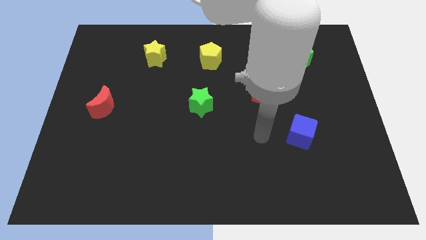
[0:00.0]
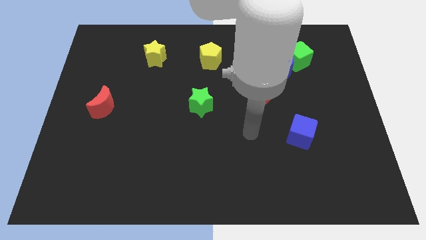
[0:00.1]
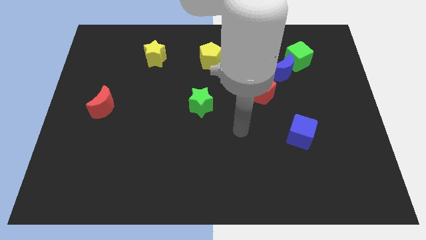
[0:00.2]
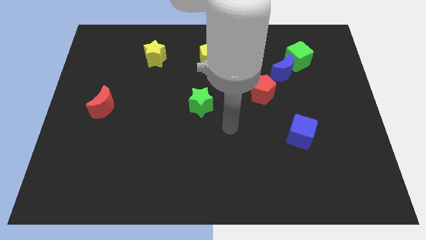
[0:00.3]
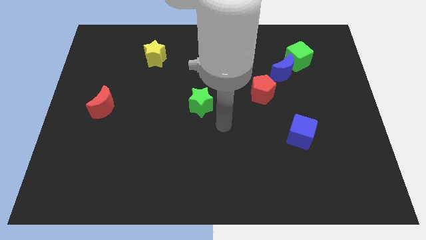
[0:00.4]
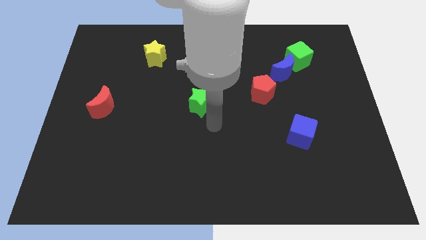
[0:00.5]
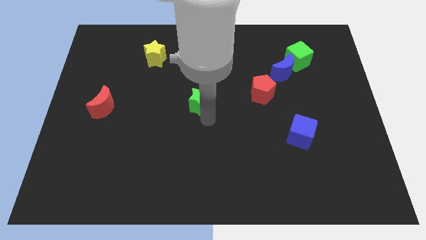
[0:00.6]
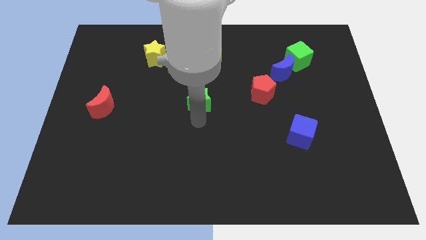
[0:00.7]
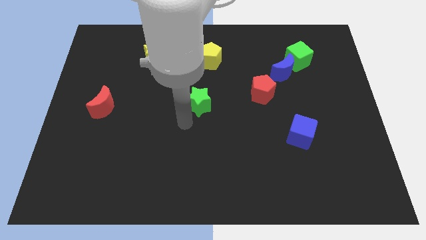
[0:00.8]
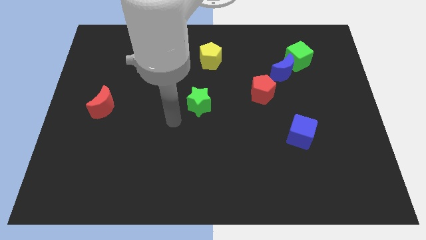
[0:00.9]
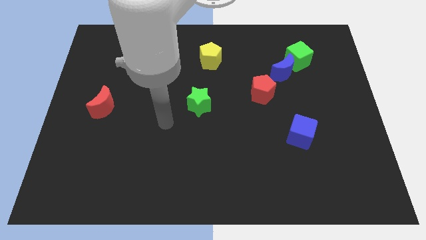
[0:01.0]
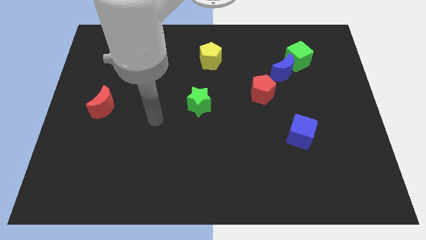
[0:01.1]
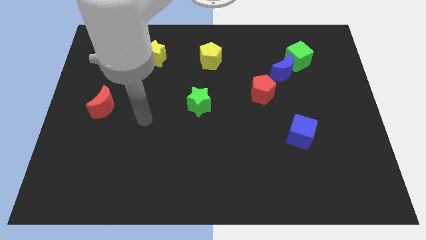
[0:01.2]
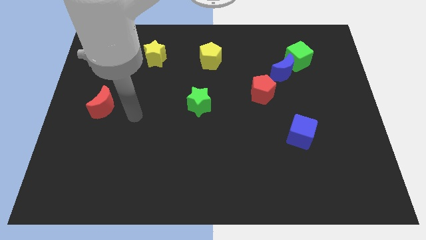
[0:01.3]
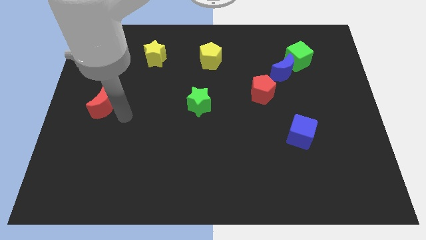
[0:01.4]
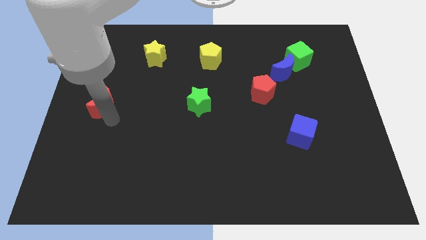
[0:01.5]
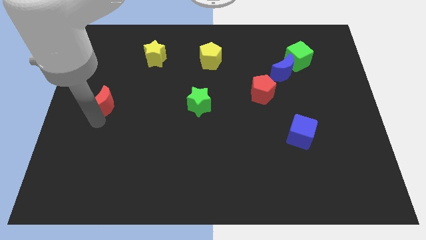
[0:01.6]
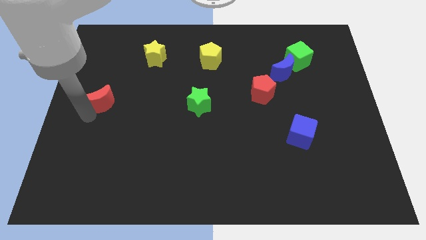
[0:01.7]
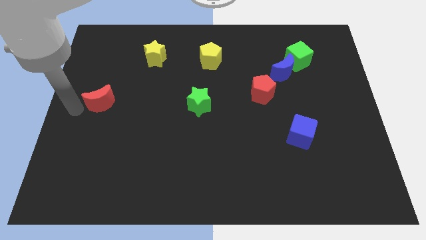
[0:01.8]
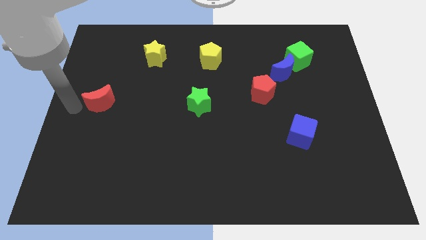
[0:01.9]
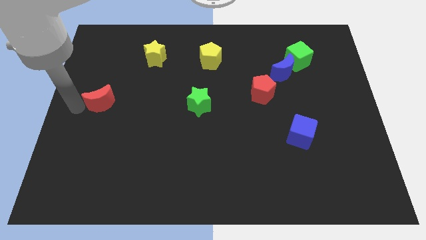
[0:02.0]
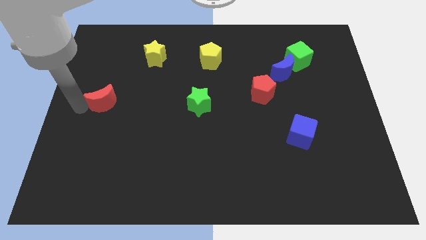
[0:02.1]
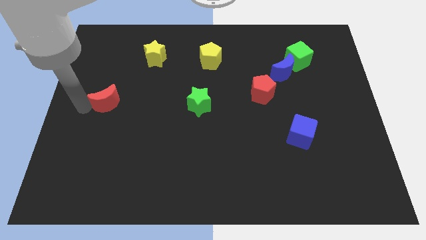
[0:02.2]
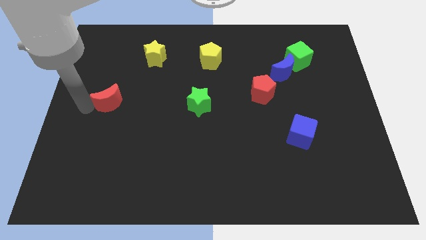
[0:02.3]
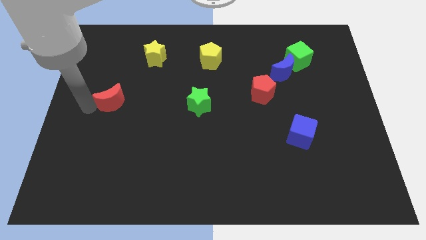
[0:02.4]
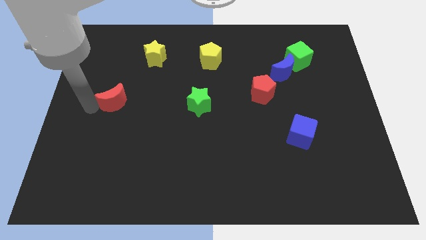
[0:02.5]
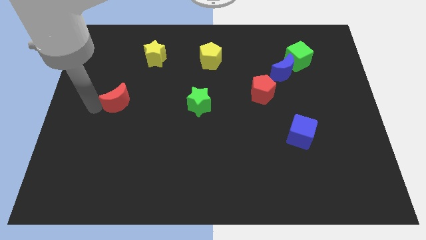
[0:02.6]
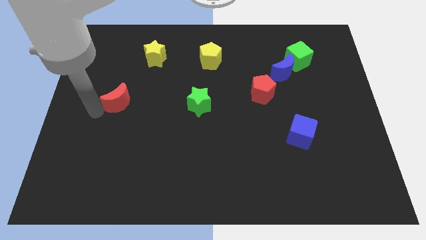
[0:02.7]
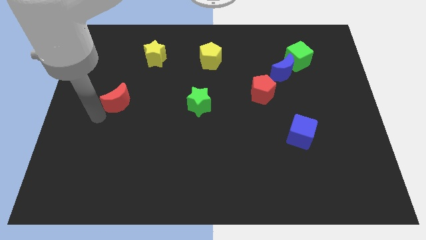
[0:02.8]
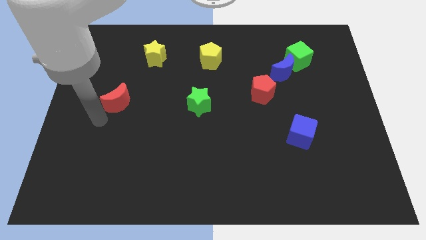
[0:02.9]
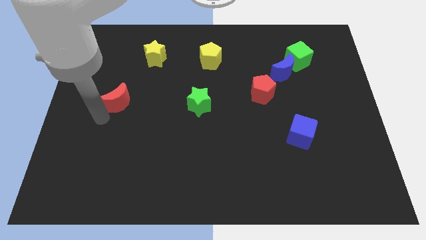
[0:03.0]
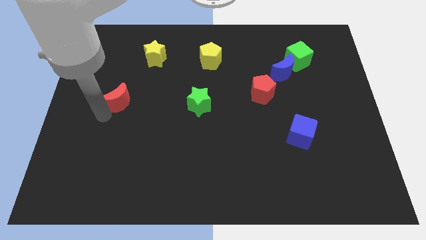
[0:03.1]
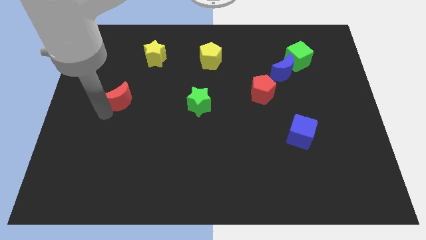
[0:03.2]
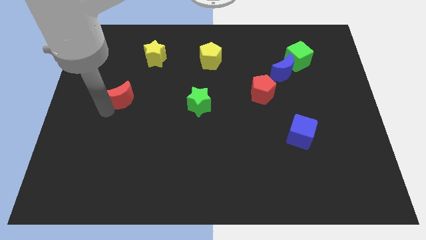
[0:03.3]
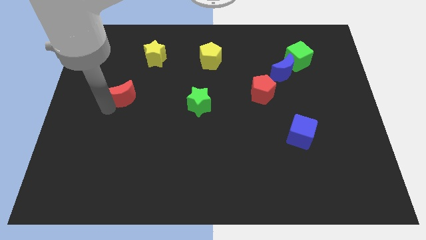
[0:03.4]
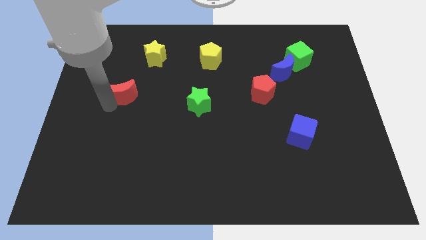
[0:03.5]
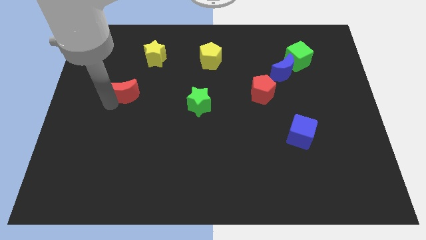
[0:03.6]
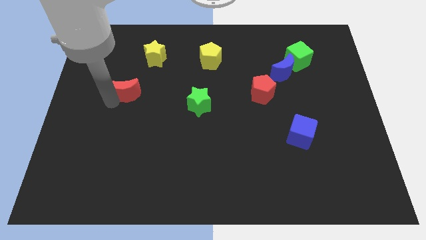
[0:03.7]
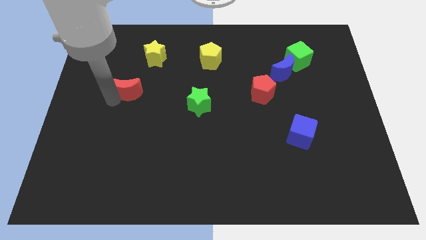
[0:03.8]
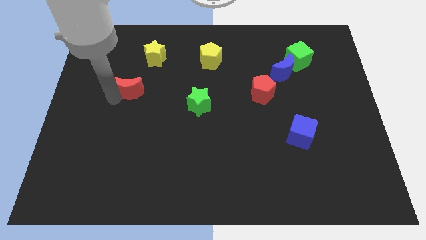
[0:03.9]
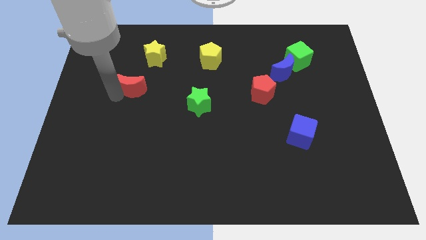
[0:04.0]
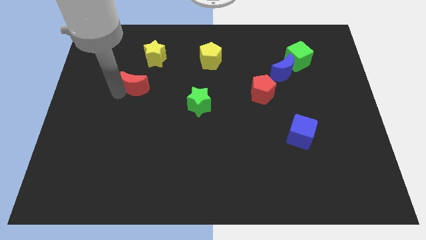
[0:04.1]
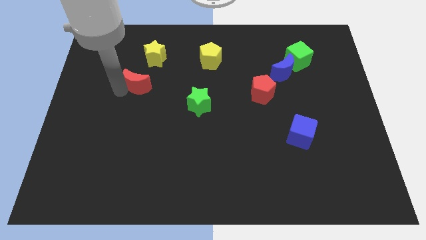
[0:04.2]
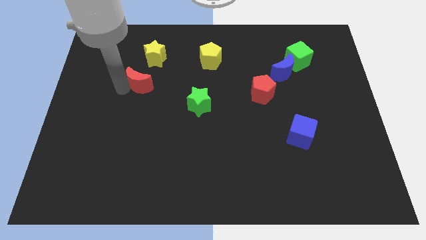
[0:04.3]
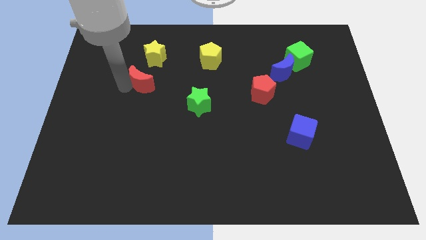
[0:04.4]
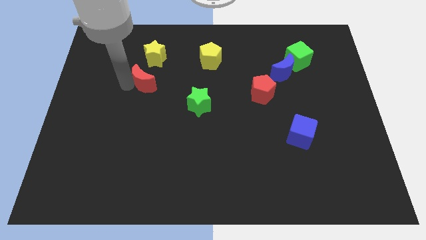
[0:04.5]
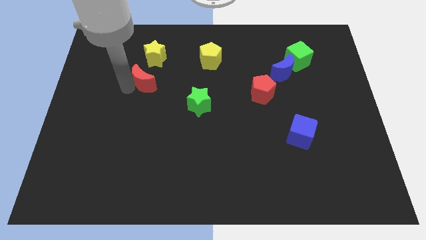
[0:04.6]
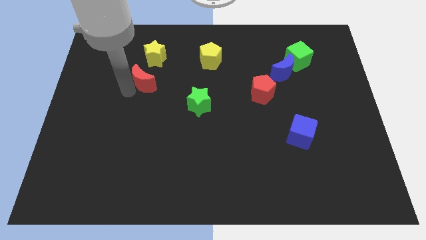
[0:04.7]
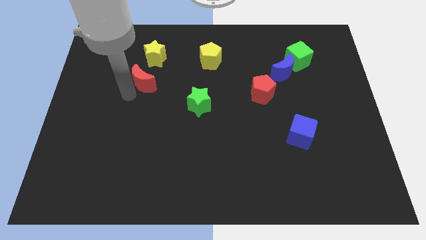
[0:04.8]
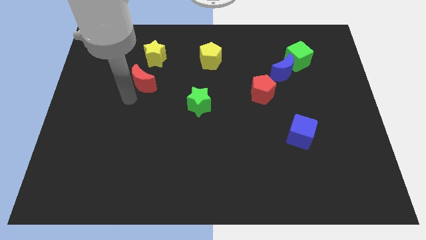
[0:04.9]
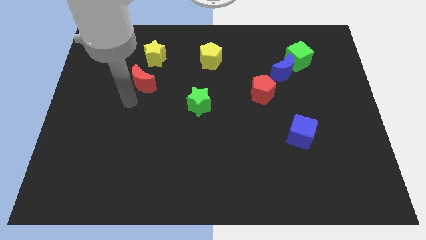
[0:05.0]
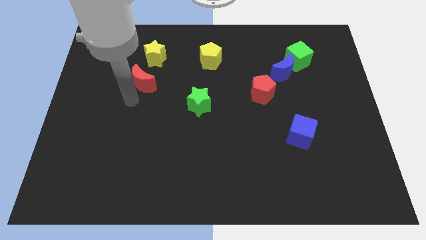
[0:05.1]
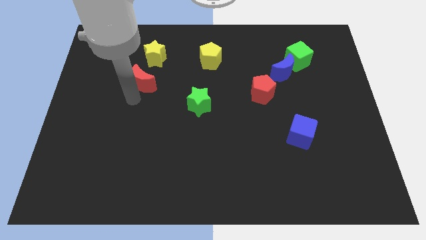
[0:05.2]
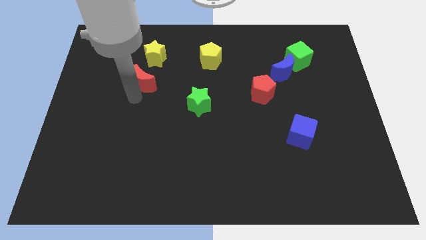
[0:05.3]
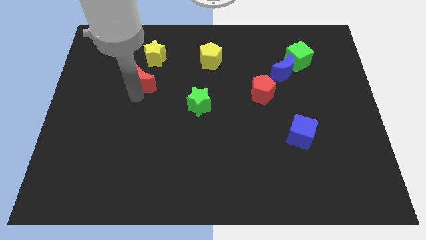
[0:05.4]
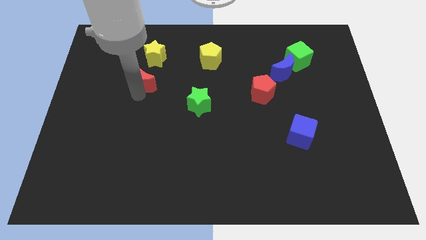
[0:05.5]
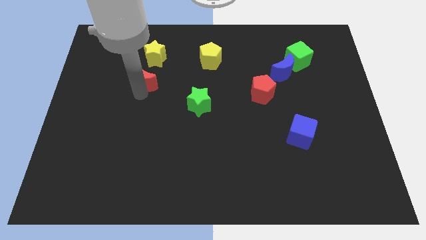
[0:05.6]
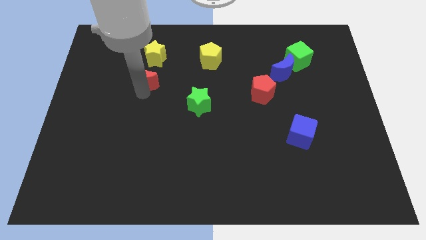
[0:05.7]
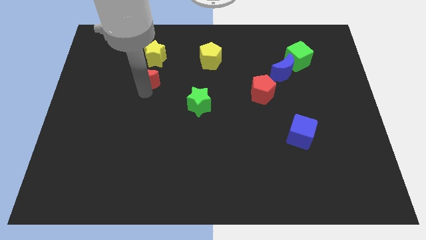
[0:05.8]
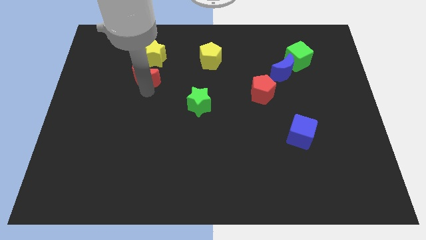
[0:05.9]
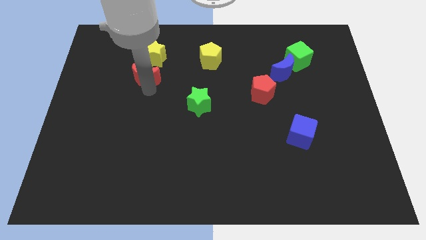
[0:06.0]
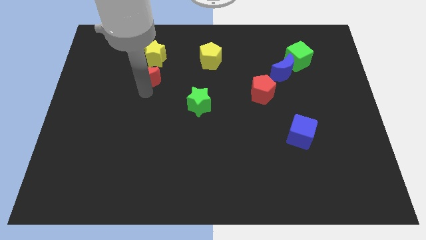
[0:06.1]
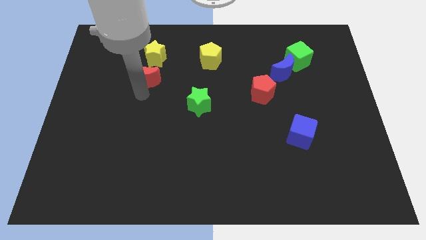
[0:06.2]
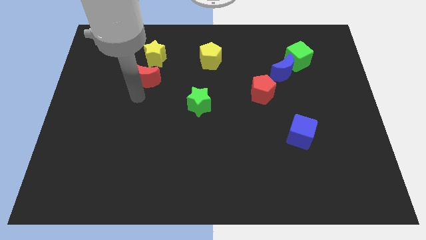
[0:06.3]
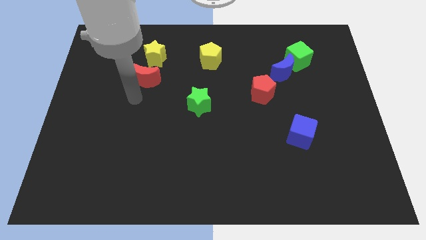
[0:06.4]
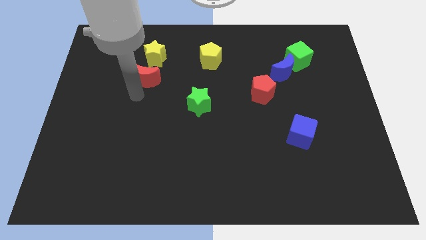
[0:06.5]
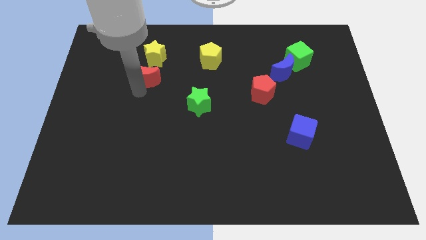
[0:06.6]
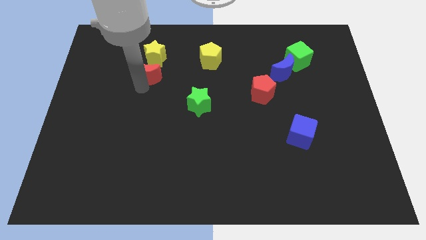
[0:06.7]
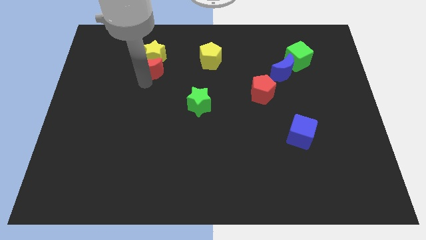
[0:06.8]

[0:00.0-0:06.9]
move the red moon to the yellow star
